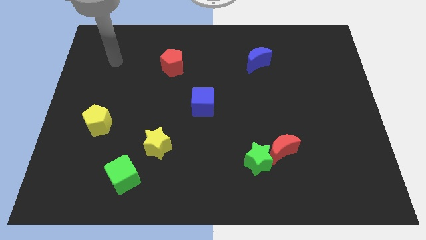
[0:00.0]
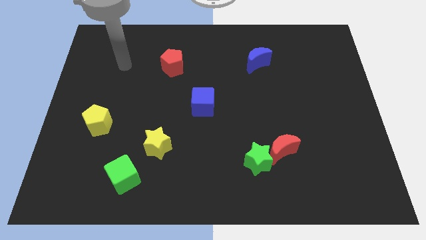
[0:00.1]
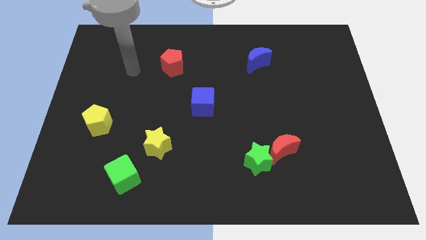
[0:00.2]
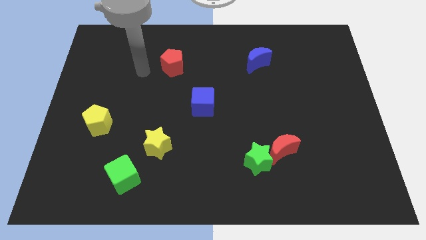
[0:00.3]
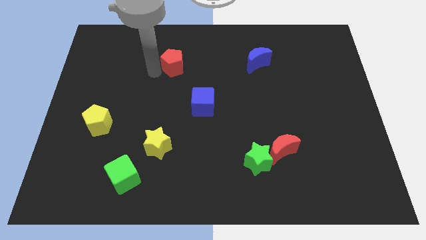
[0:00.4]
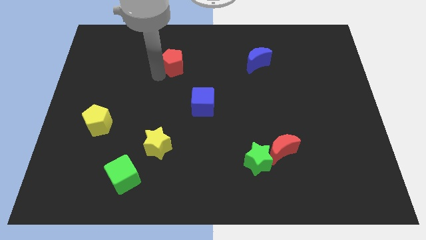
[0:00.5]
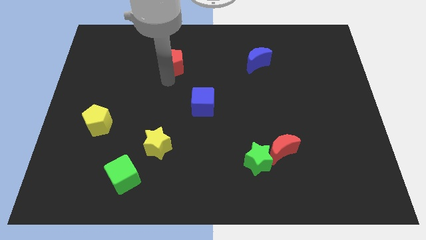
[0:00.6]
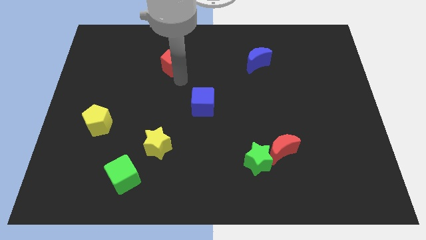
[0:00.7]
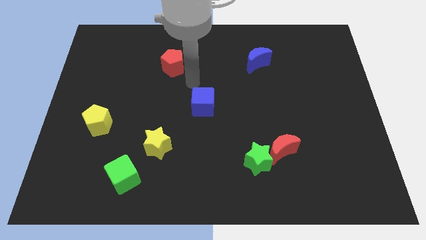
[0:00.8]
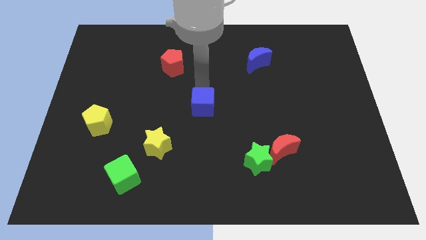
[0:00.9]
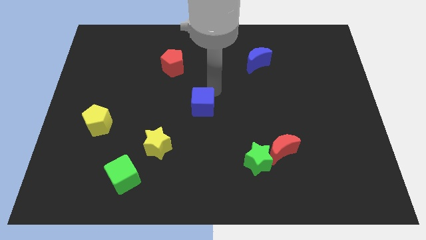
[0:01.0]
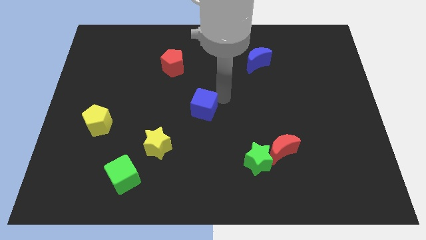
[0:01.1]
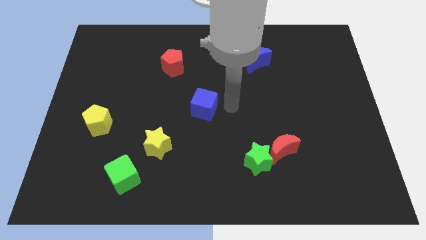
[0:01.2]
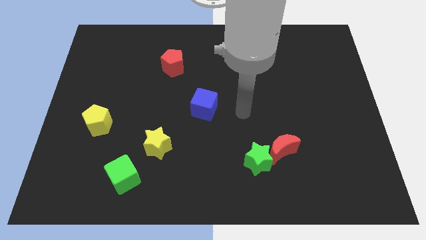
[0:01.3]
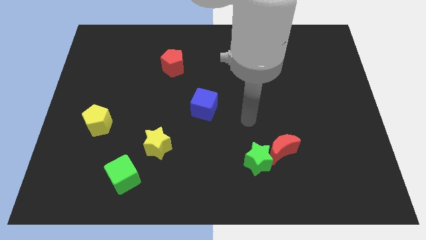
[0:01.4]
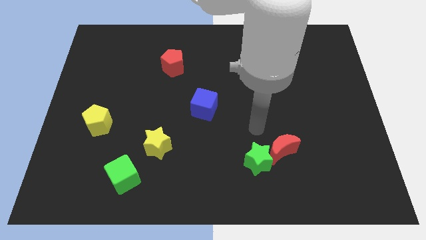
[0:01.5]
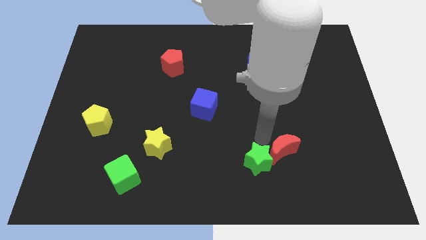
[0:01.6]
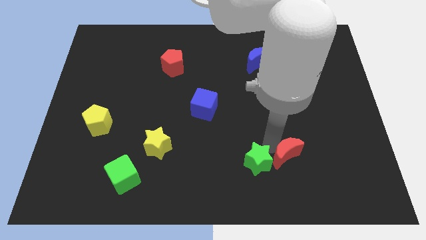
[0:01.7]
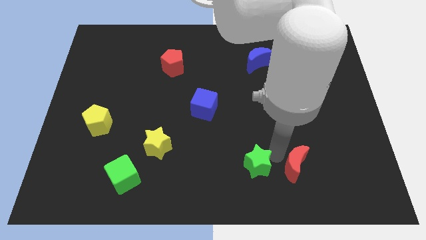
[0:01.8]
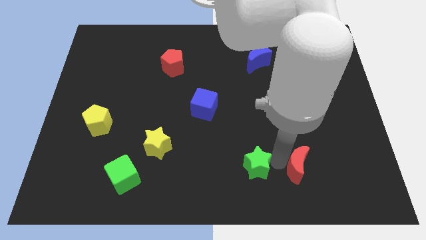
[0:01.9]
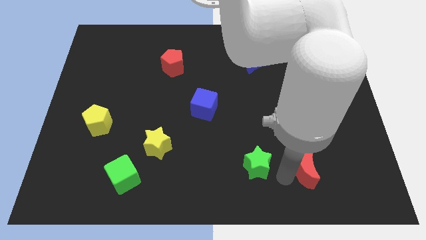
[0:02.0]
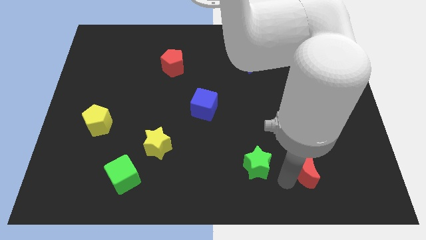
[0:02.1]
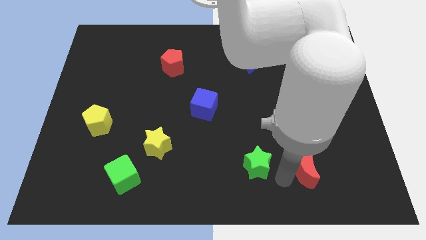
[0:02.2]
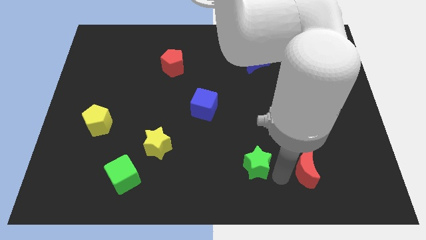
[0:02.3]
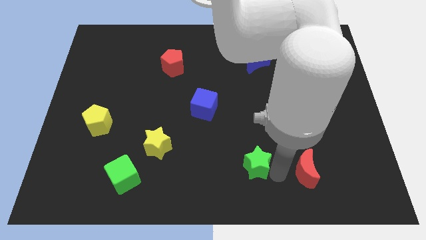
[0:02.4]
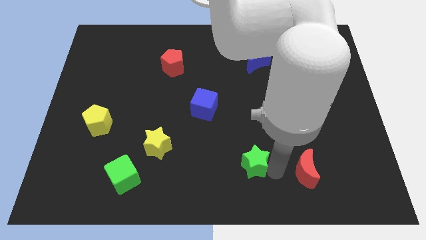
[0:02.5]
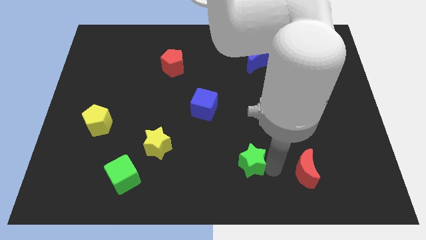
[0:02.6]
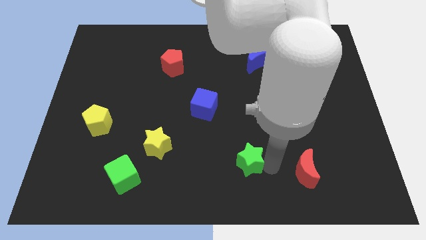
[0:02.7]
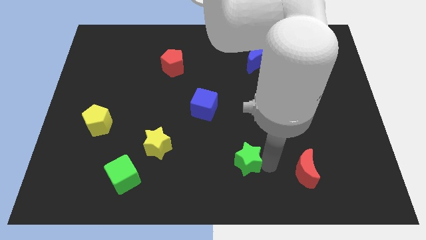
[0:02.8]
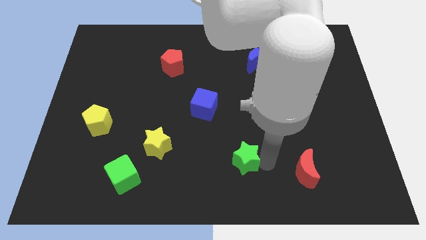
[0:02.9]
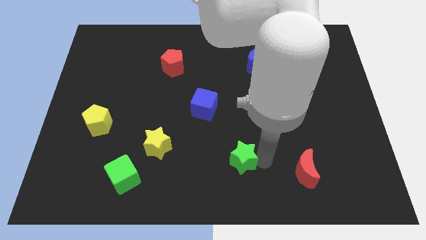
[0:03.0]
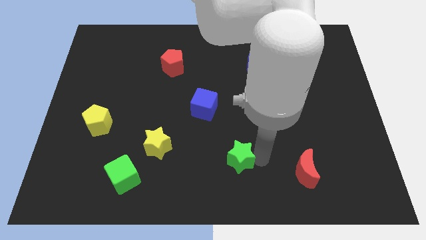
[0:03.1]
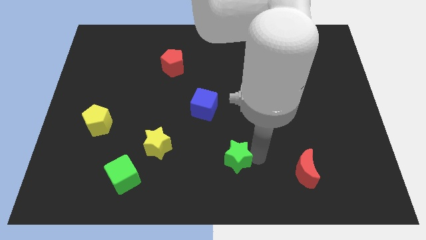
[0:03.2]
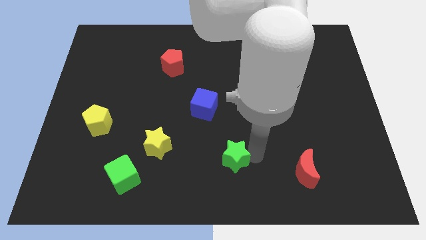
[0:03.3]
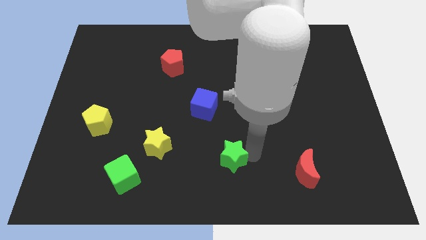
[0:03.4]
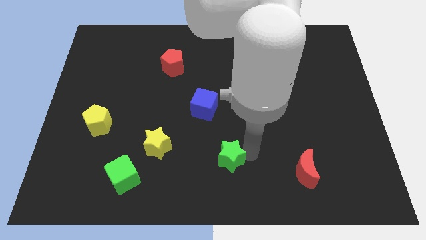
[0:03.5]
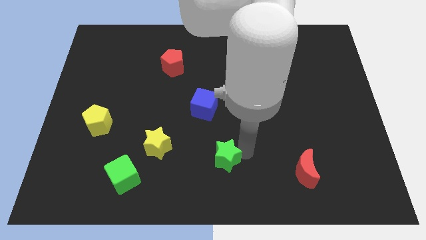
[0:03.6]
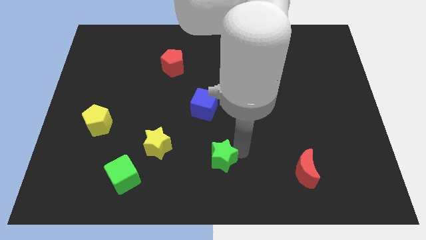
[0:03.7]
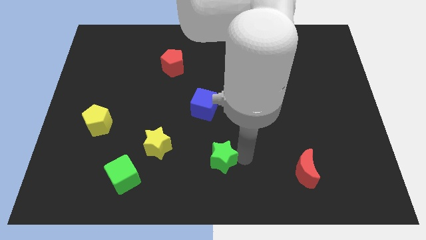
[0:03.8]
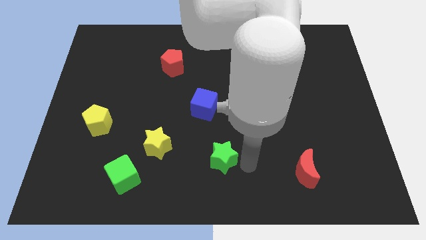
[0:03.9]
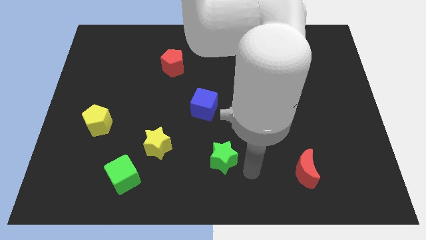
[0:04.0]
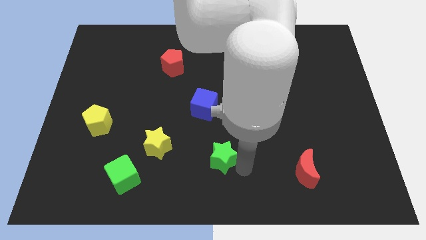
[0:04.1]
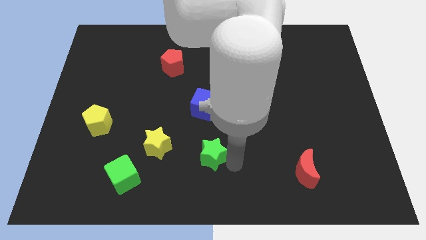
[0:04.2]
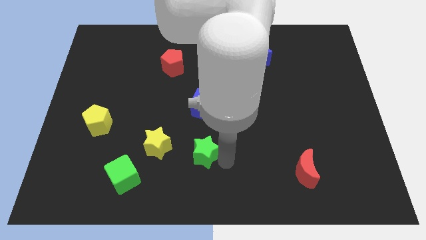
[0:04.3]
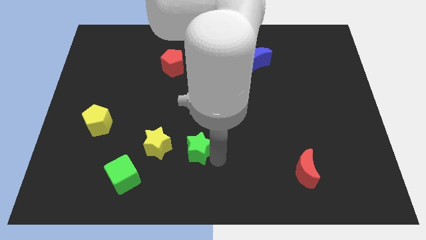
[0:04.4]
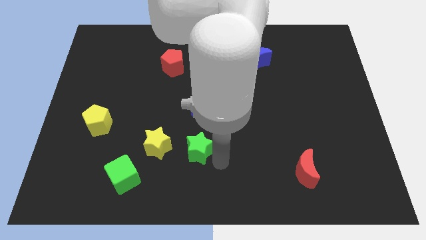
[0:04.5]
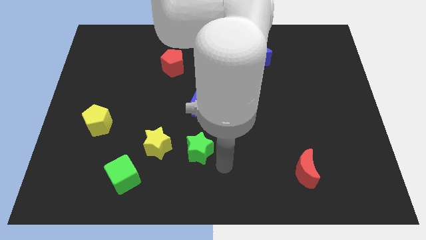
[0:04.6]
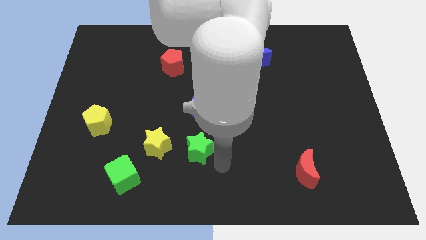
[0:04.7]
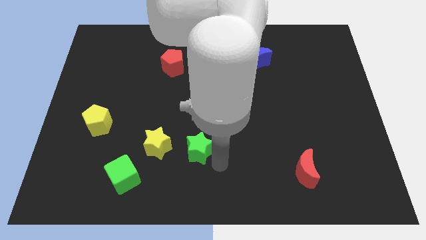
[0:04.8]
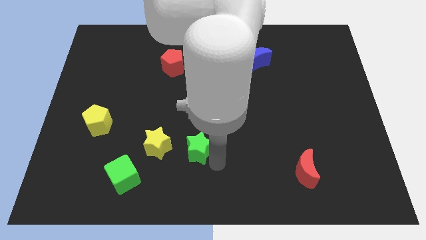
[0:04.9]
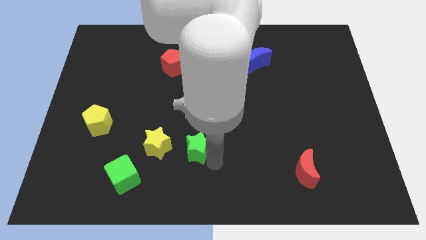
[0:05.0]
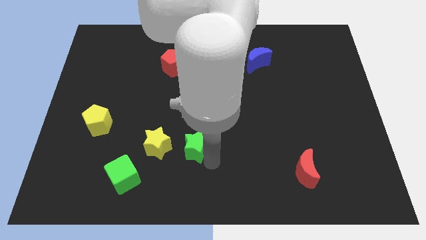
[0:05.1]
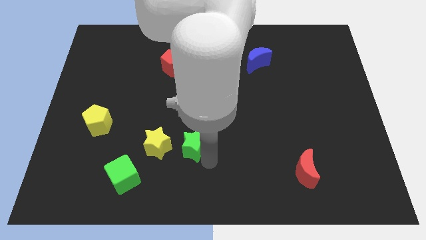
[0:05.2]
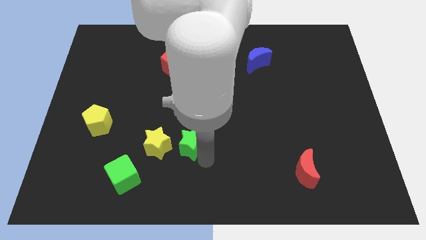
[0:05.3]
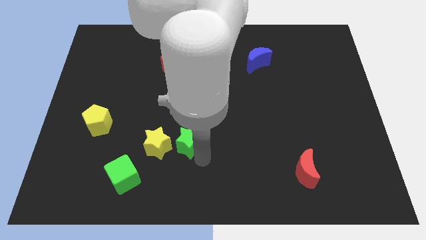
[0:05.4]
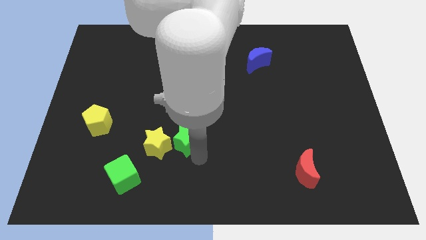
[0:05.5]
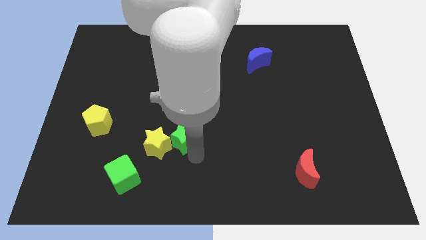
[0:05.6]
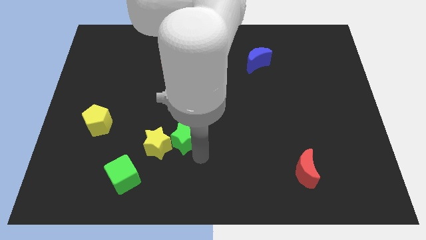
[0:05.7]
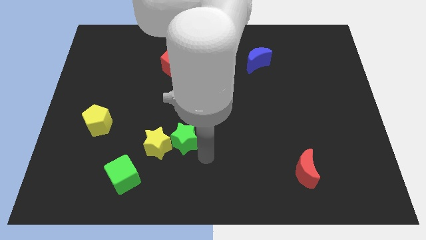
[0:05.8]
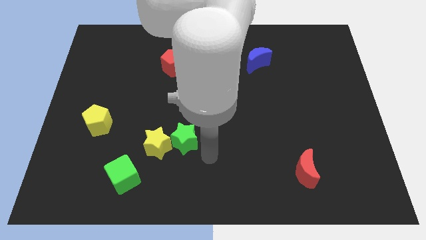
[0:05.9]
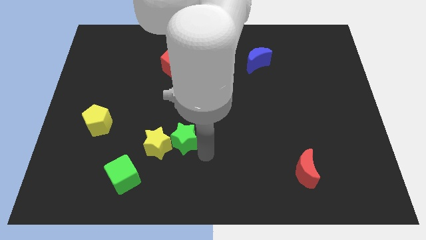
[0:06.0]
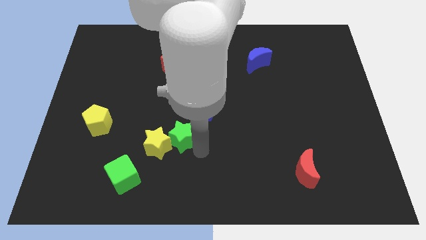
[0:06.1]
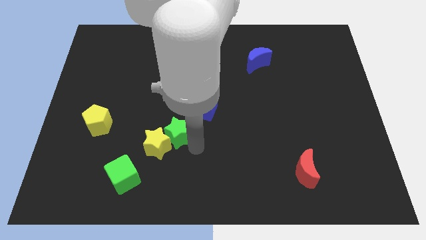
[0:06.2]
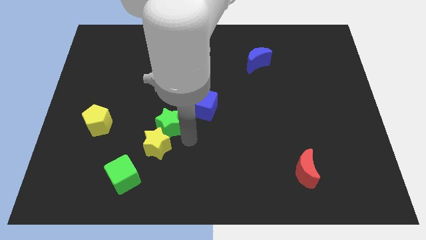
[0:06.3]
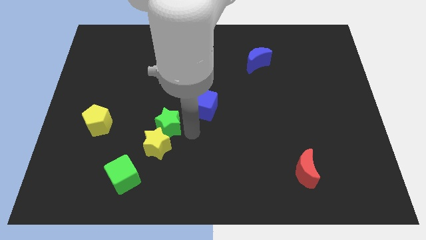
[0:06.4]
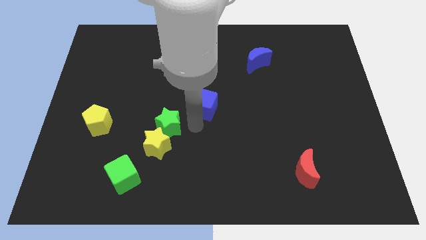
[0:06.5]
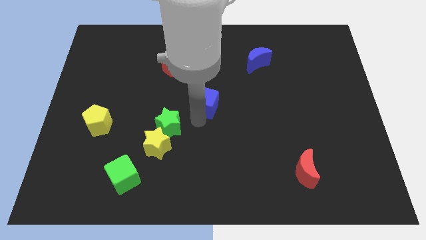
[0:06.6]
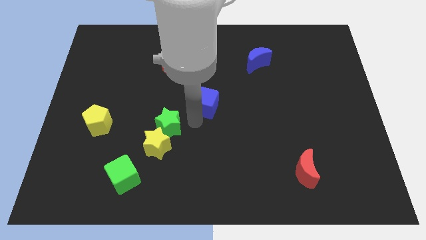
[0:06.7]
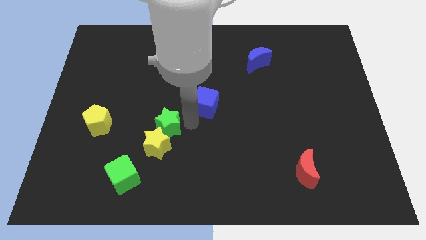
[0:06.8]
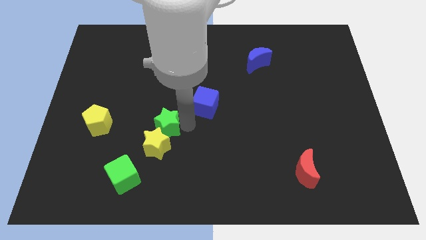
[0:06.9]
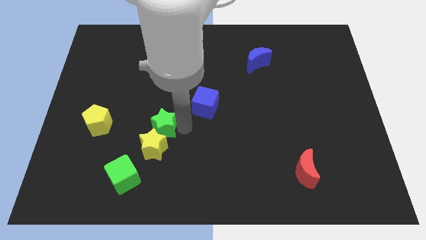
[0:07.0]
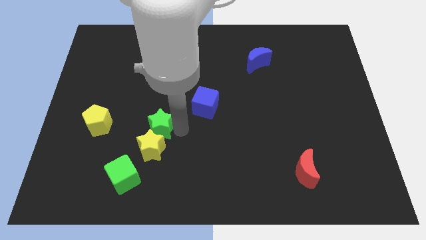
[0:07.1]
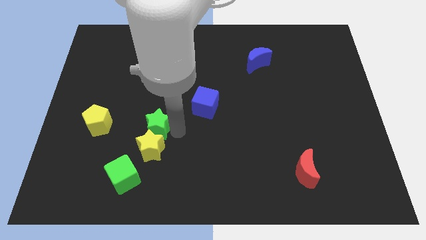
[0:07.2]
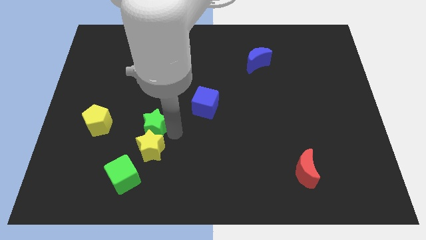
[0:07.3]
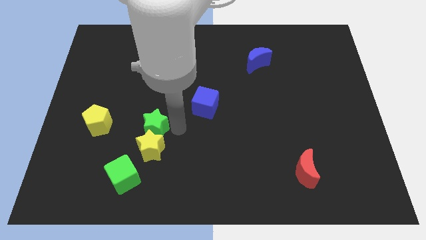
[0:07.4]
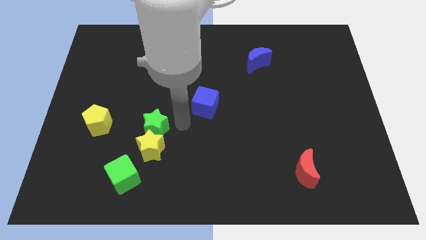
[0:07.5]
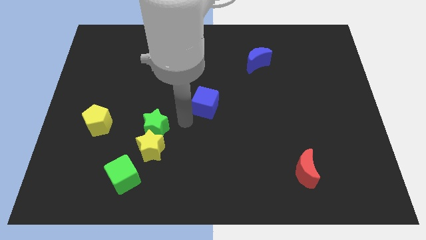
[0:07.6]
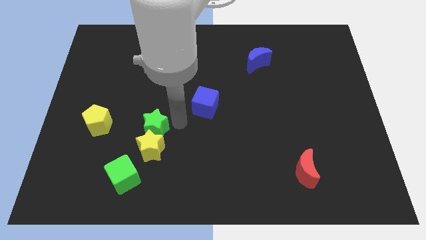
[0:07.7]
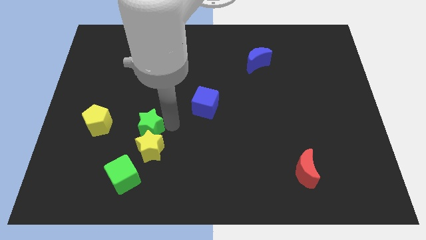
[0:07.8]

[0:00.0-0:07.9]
move the green star to the top of the green cube
